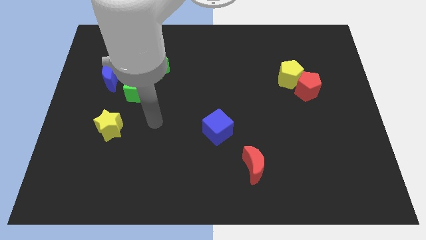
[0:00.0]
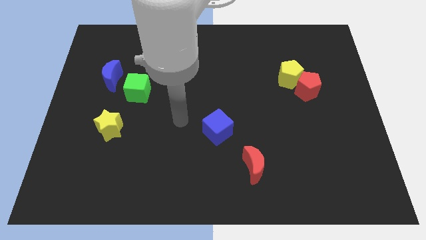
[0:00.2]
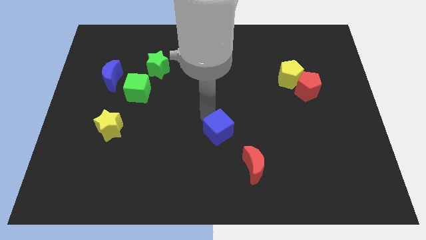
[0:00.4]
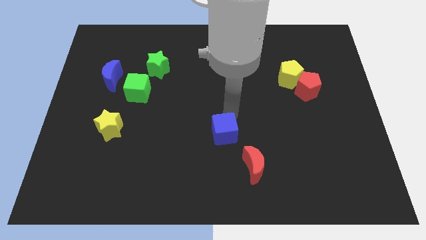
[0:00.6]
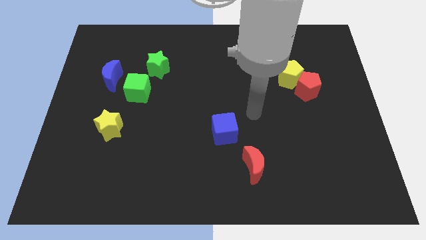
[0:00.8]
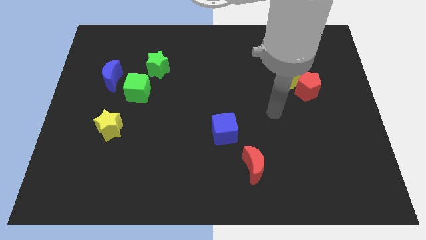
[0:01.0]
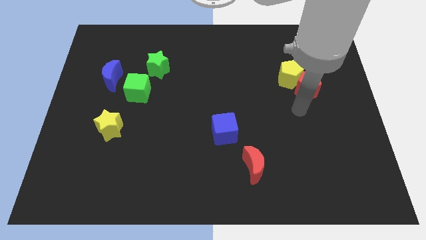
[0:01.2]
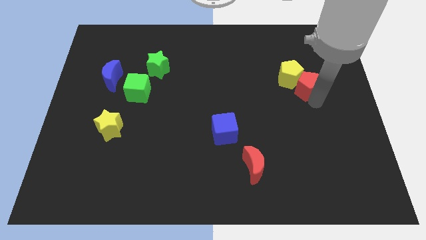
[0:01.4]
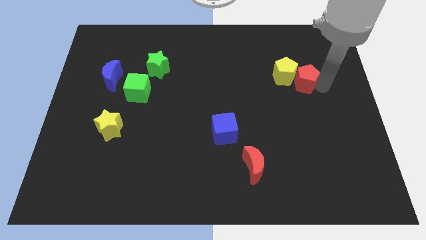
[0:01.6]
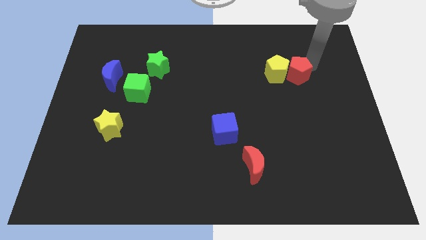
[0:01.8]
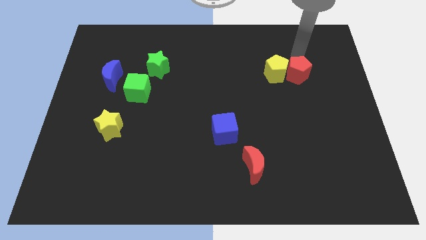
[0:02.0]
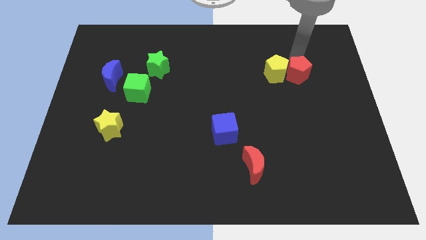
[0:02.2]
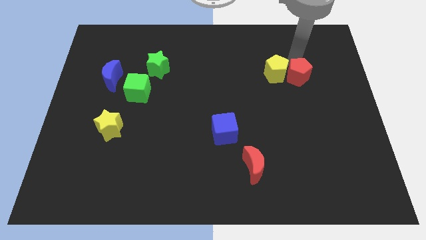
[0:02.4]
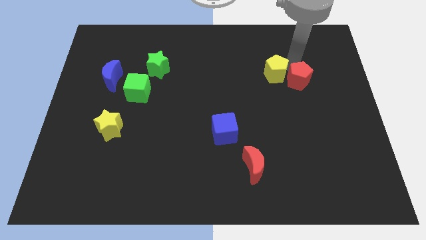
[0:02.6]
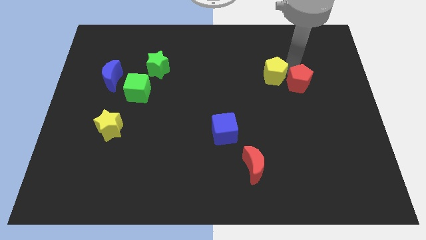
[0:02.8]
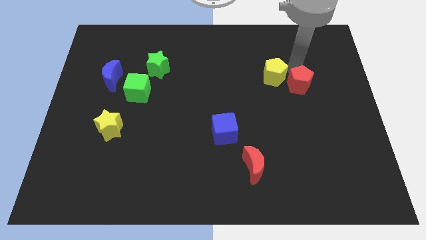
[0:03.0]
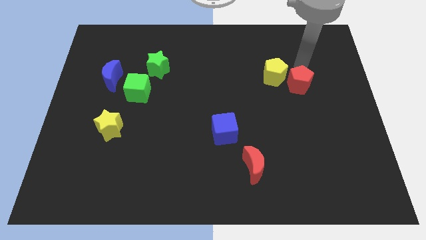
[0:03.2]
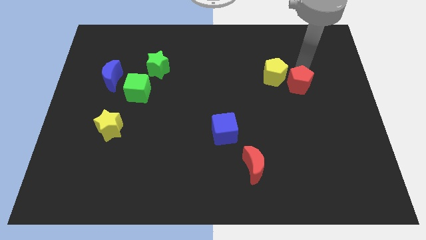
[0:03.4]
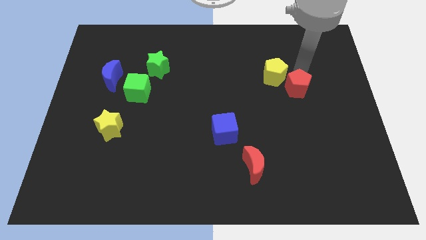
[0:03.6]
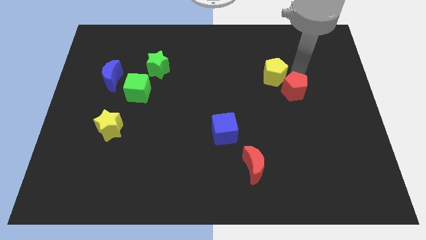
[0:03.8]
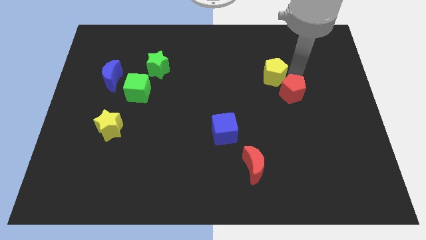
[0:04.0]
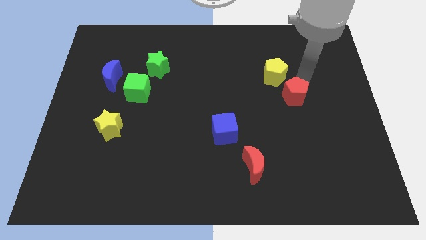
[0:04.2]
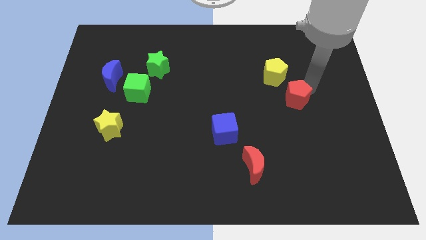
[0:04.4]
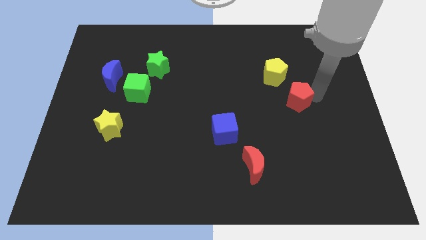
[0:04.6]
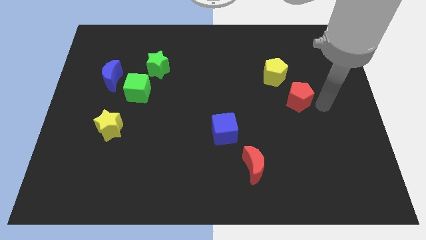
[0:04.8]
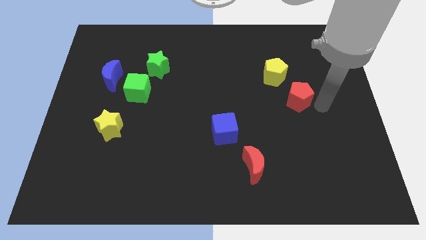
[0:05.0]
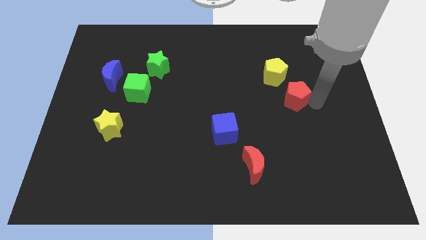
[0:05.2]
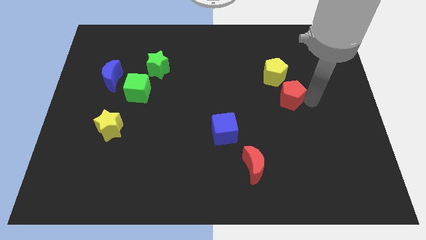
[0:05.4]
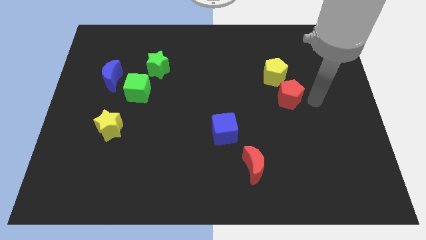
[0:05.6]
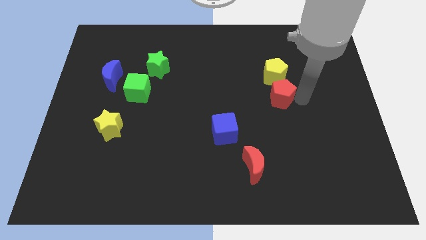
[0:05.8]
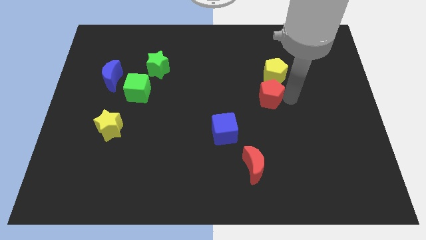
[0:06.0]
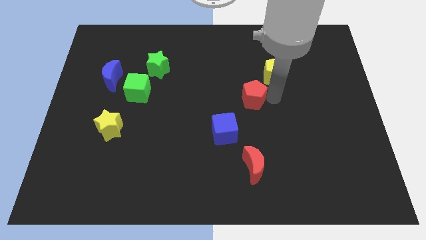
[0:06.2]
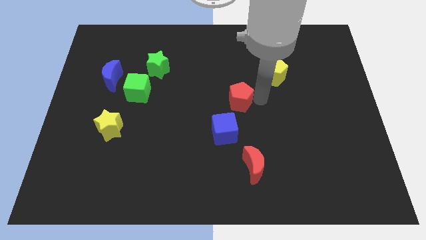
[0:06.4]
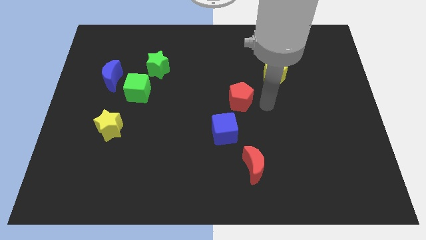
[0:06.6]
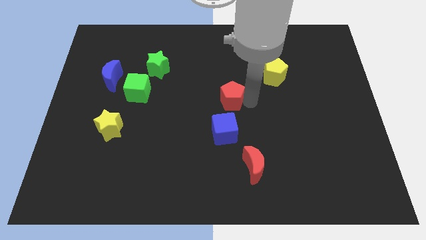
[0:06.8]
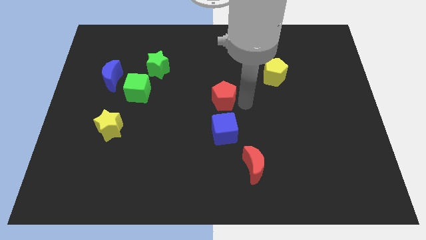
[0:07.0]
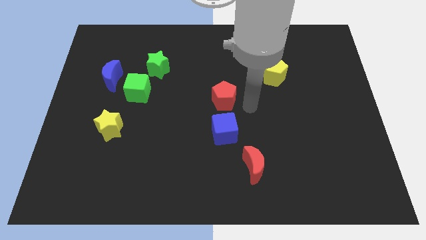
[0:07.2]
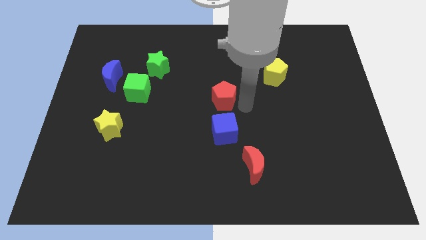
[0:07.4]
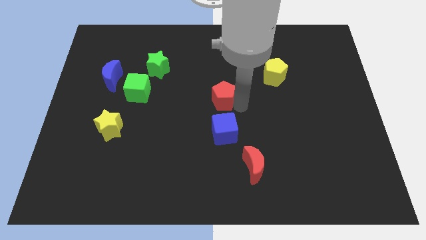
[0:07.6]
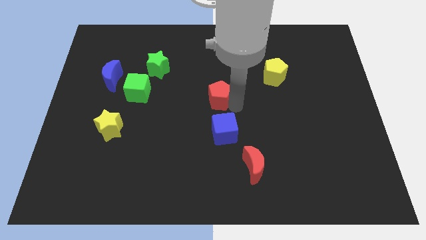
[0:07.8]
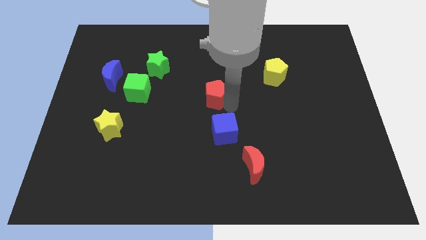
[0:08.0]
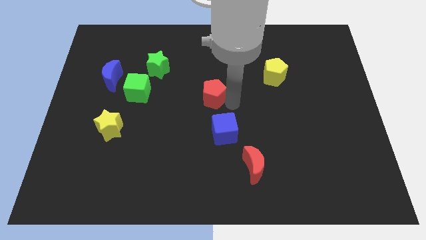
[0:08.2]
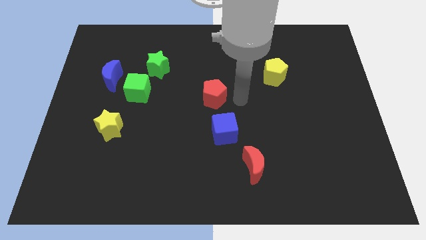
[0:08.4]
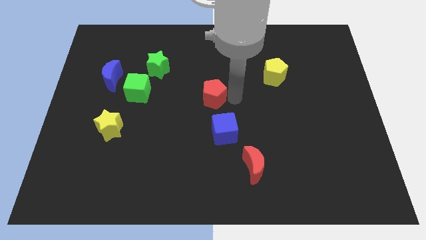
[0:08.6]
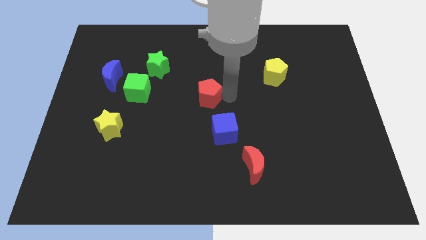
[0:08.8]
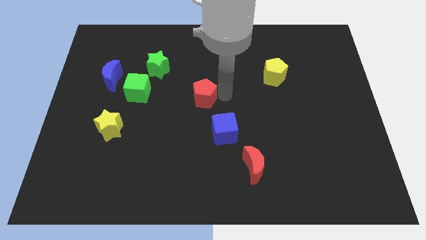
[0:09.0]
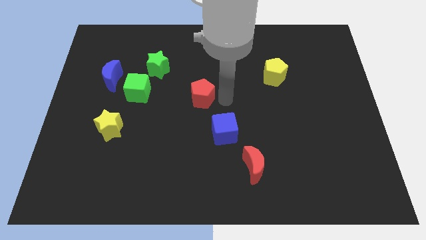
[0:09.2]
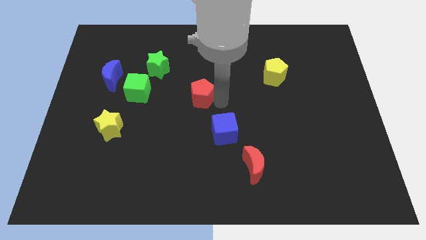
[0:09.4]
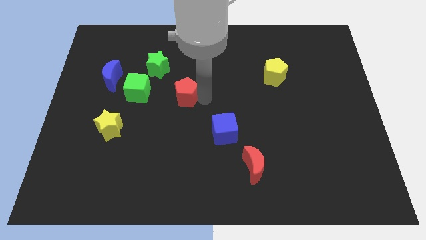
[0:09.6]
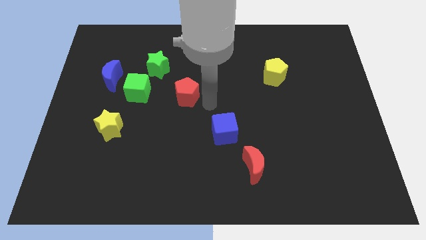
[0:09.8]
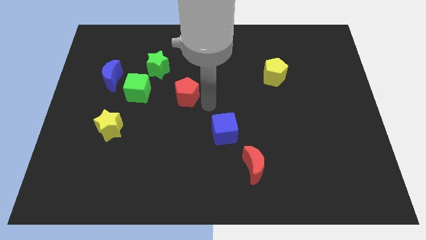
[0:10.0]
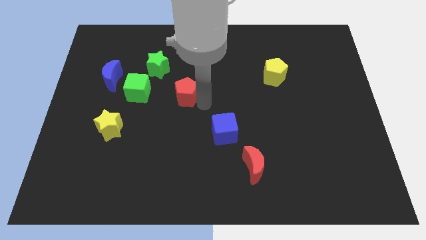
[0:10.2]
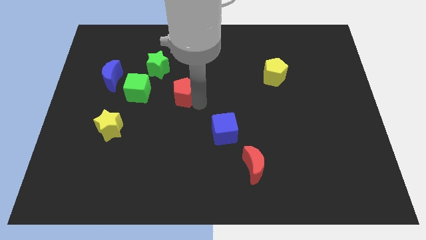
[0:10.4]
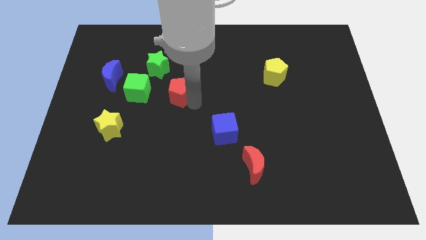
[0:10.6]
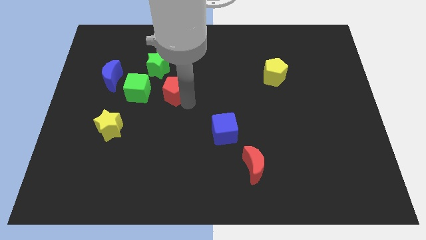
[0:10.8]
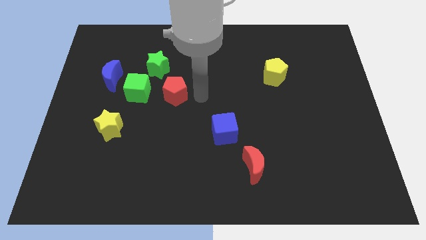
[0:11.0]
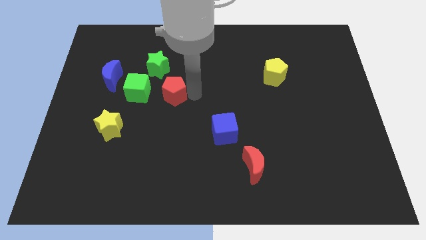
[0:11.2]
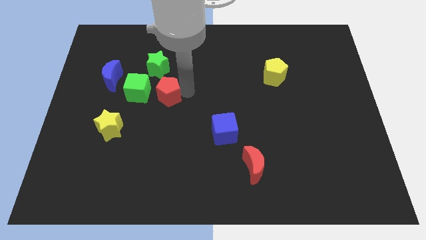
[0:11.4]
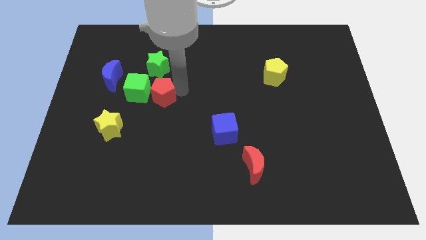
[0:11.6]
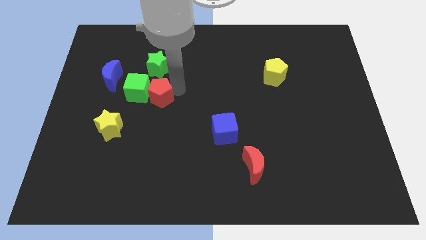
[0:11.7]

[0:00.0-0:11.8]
move the red pentagon next to the green cube

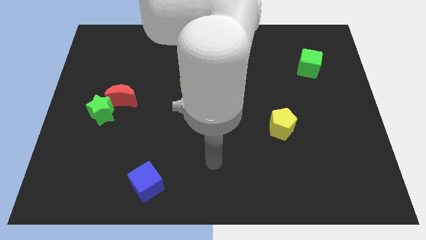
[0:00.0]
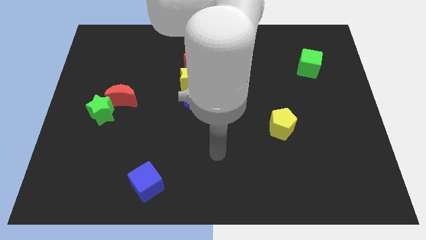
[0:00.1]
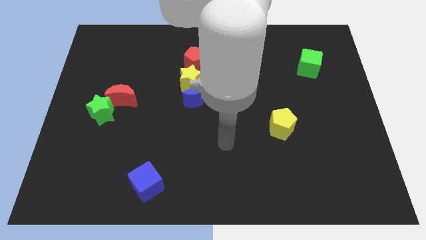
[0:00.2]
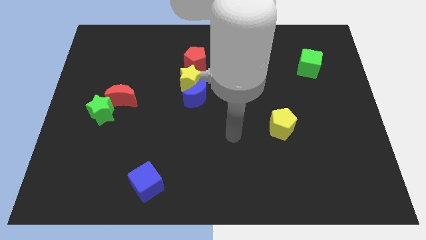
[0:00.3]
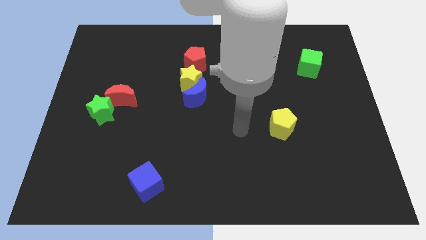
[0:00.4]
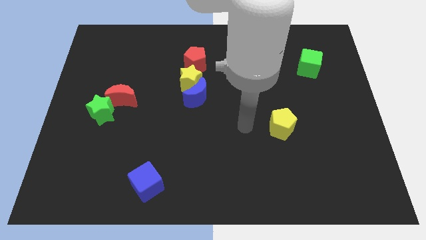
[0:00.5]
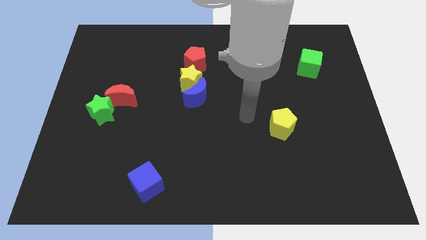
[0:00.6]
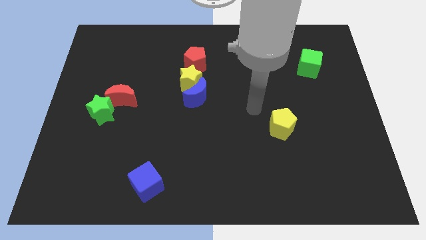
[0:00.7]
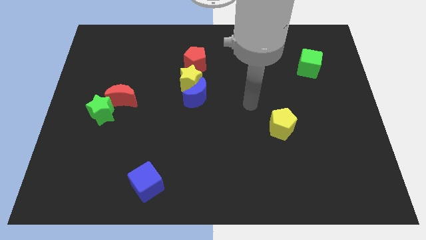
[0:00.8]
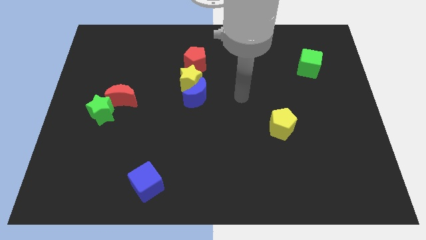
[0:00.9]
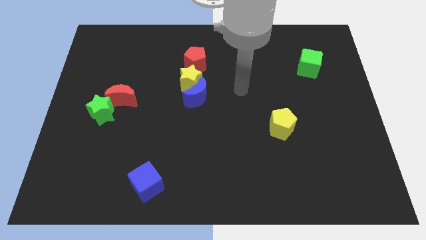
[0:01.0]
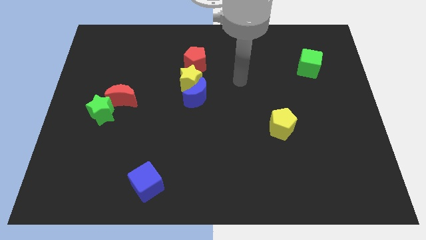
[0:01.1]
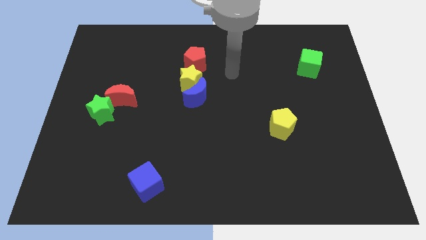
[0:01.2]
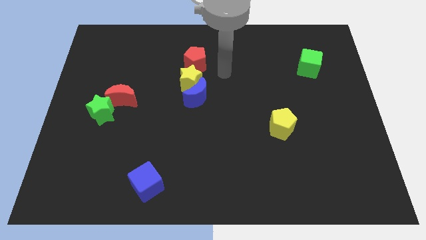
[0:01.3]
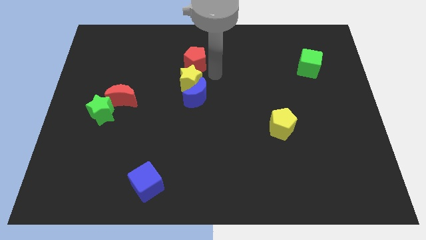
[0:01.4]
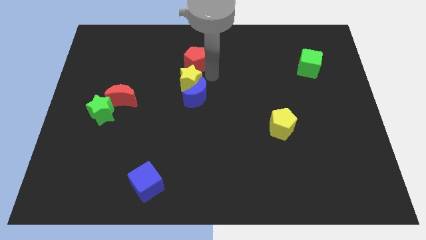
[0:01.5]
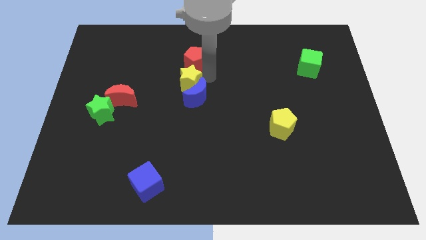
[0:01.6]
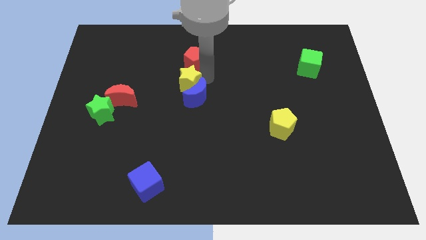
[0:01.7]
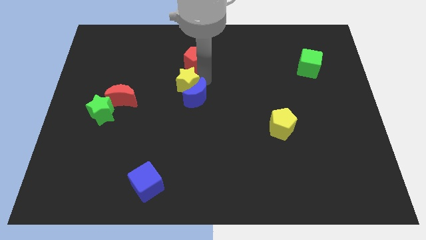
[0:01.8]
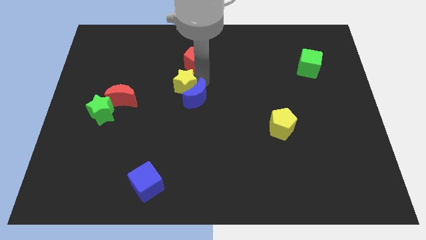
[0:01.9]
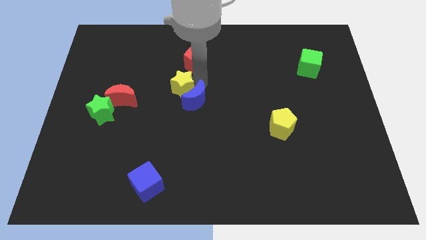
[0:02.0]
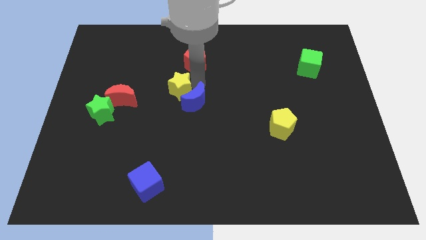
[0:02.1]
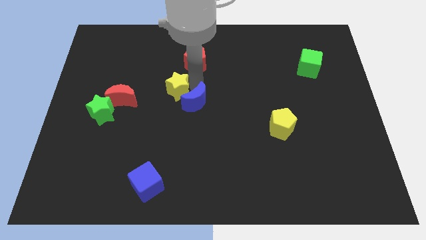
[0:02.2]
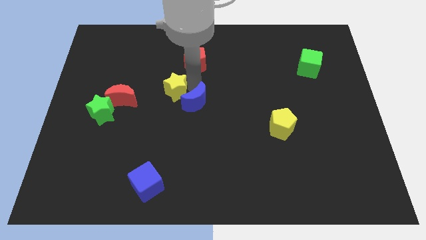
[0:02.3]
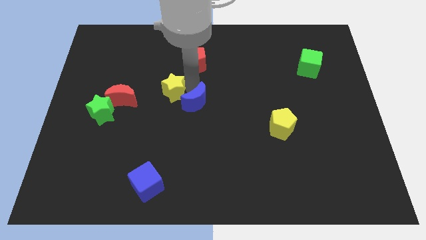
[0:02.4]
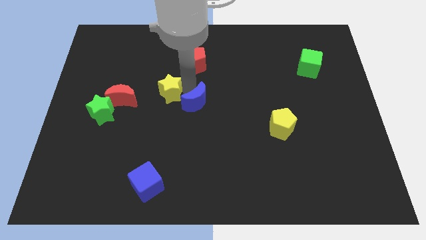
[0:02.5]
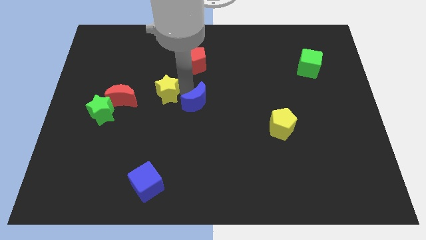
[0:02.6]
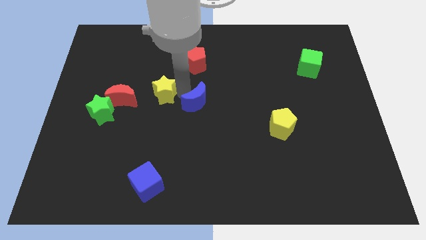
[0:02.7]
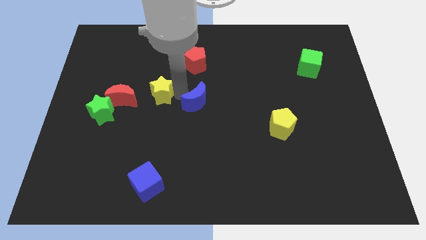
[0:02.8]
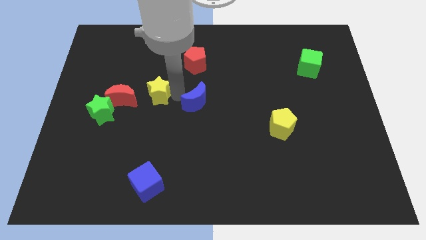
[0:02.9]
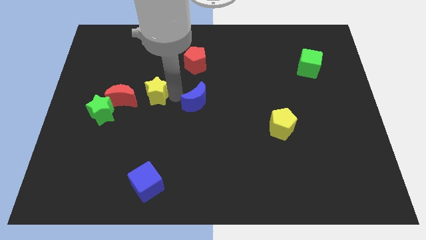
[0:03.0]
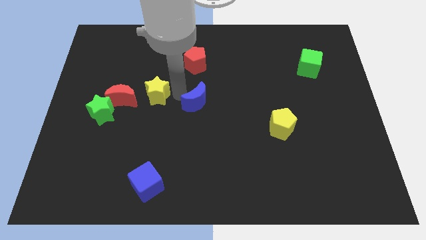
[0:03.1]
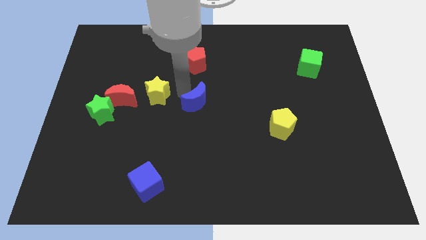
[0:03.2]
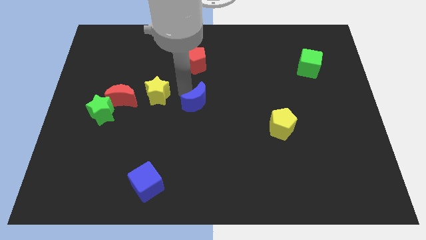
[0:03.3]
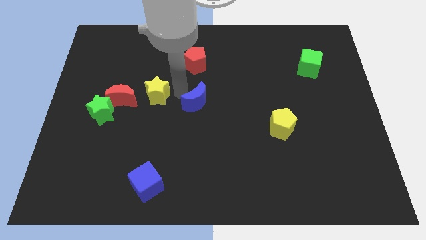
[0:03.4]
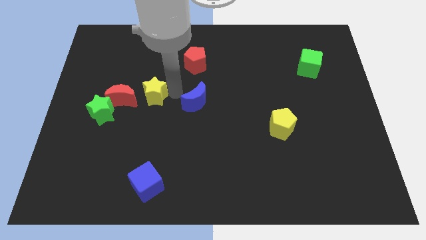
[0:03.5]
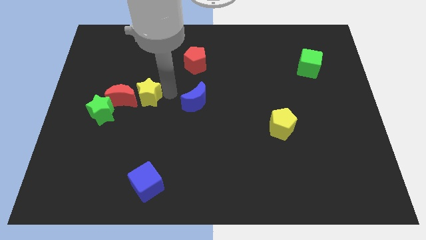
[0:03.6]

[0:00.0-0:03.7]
move the yellow star next to the red moon
